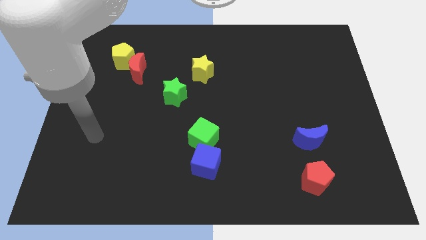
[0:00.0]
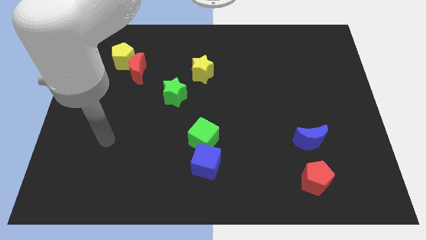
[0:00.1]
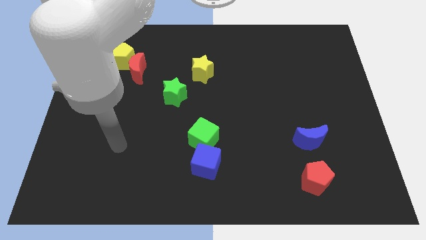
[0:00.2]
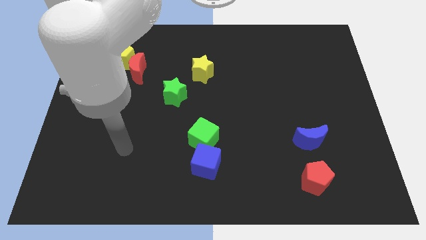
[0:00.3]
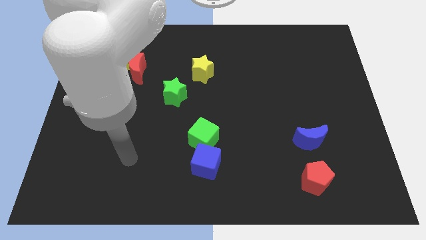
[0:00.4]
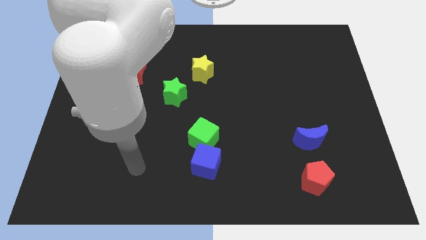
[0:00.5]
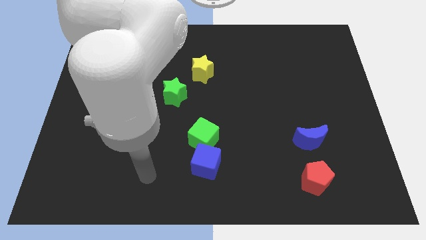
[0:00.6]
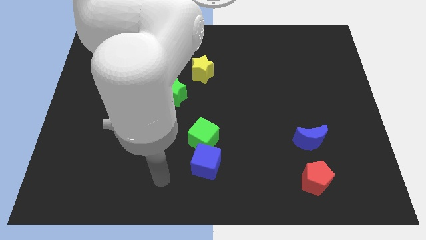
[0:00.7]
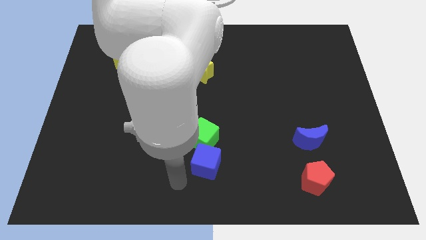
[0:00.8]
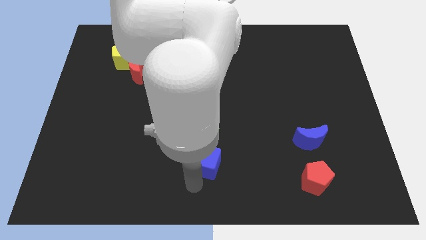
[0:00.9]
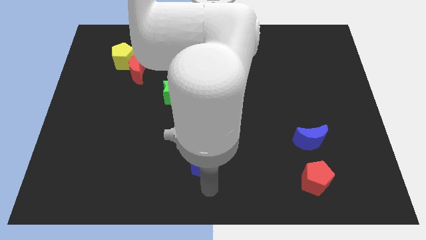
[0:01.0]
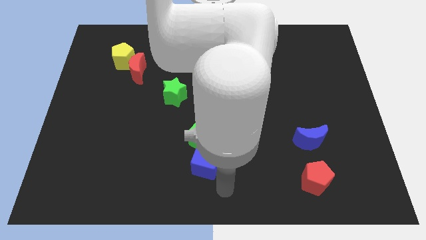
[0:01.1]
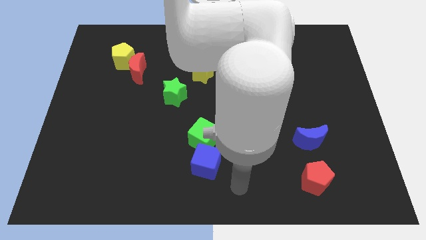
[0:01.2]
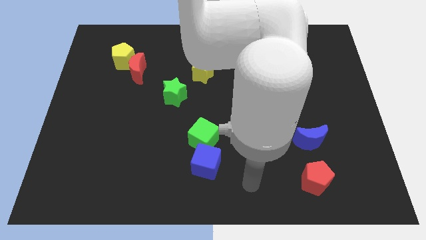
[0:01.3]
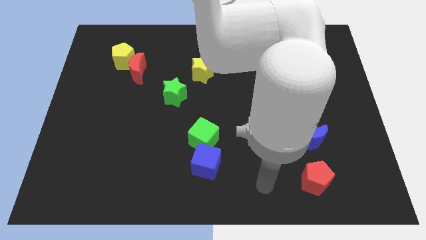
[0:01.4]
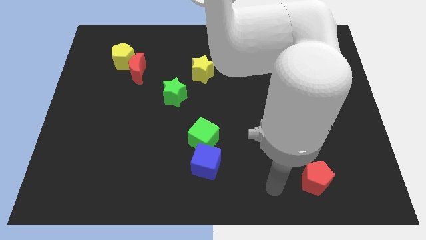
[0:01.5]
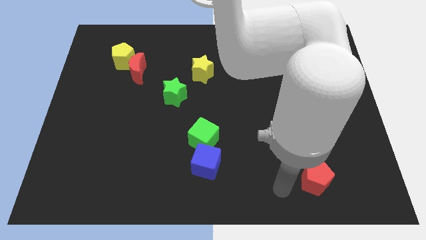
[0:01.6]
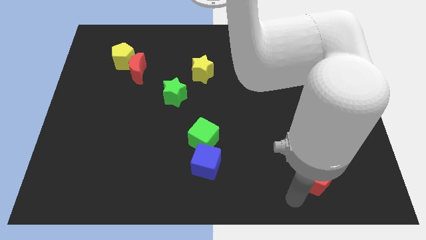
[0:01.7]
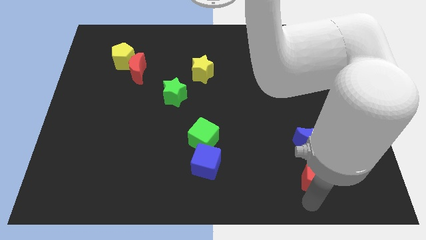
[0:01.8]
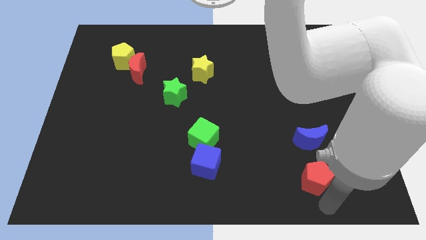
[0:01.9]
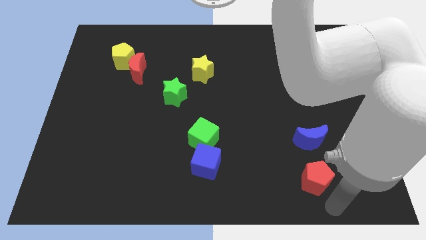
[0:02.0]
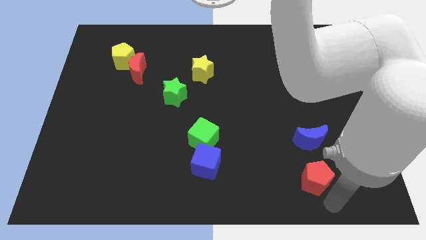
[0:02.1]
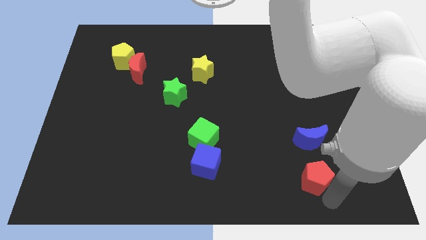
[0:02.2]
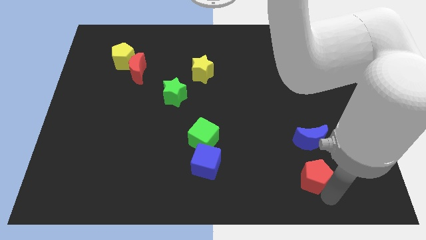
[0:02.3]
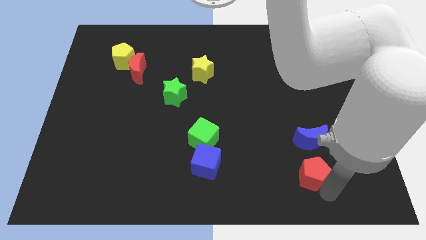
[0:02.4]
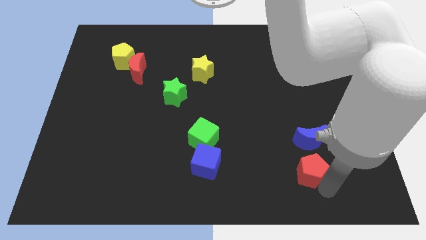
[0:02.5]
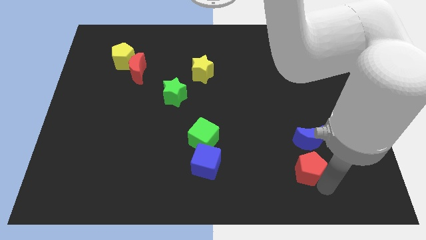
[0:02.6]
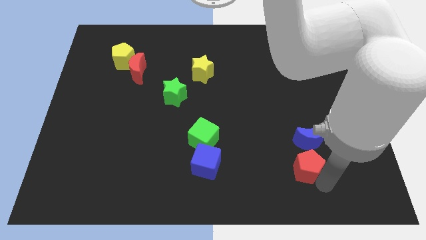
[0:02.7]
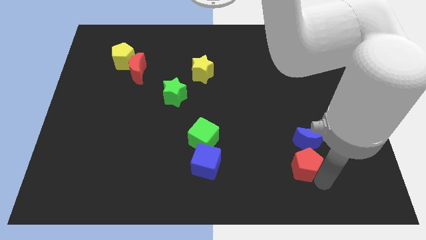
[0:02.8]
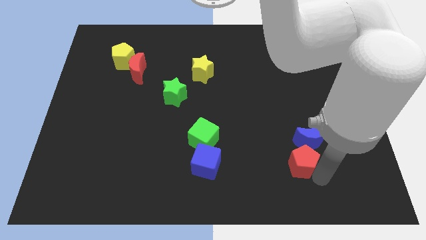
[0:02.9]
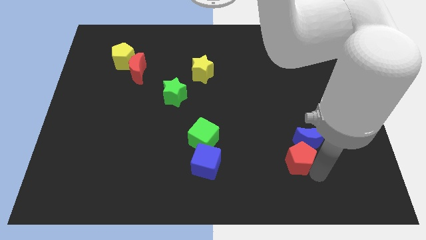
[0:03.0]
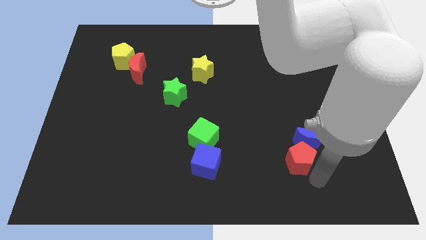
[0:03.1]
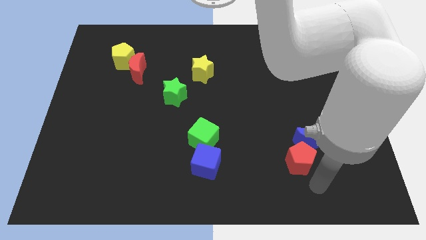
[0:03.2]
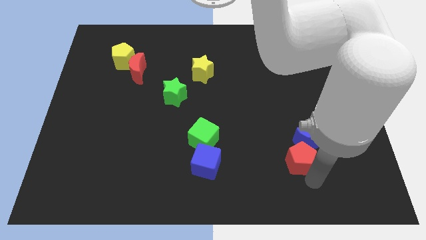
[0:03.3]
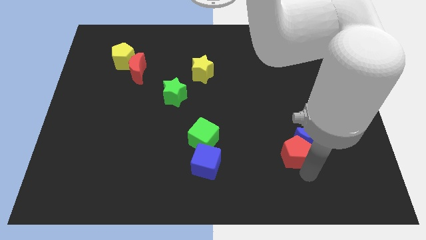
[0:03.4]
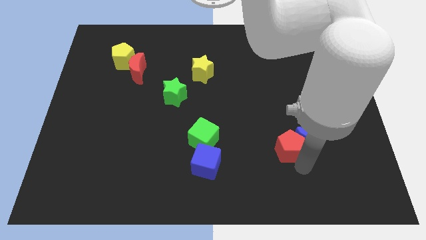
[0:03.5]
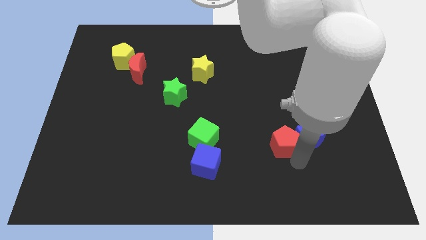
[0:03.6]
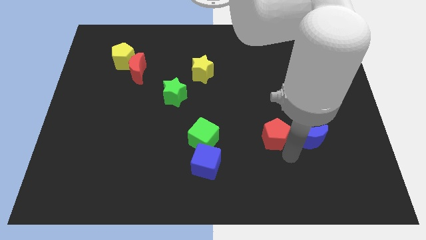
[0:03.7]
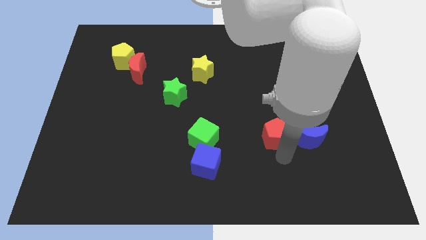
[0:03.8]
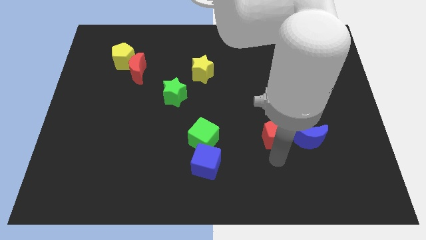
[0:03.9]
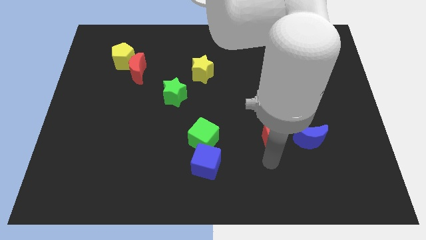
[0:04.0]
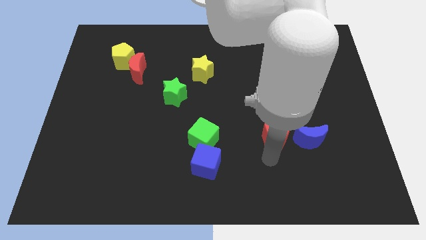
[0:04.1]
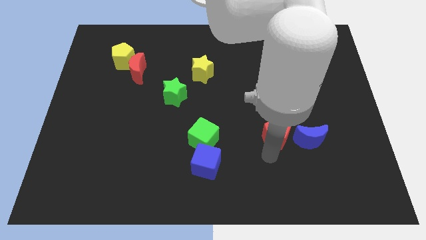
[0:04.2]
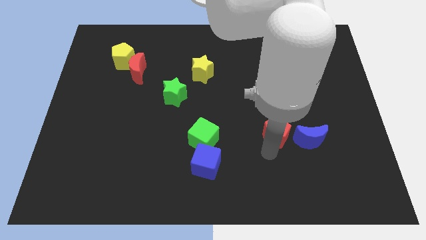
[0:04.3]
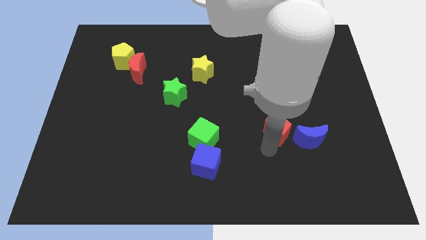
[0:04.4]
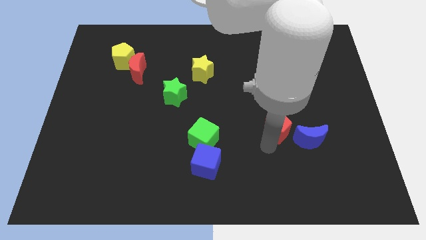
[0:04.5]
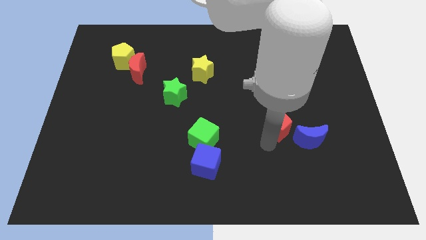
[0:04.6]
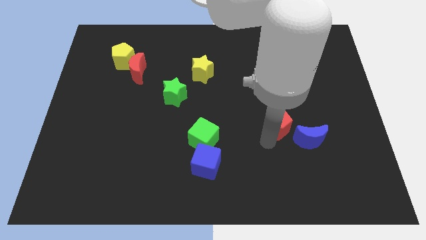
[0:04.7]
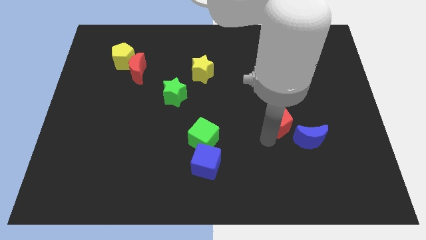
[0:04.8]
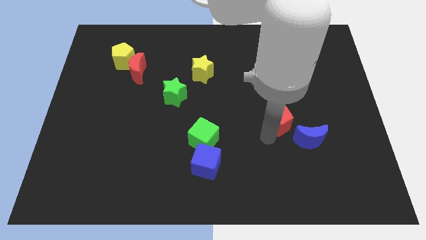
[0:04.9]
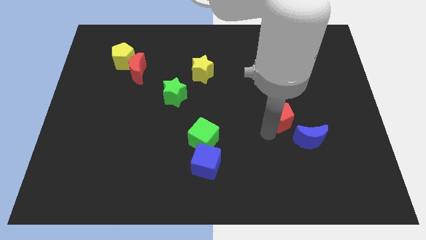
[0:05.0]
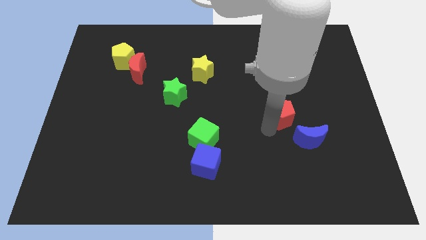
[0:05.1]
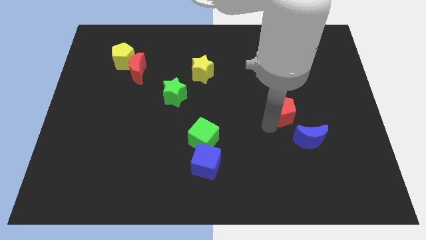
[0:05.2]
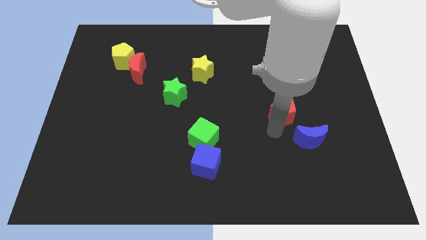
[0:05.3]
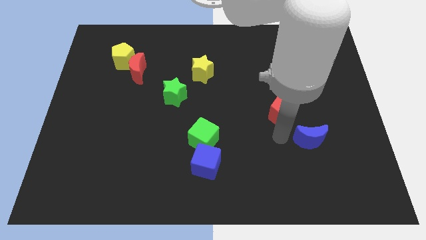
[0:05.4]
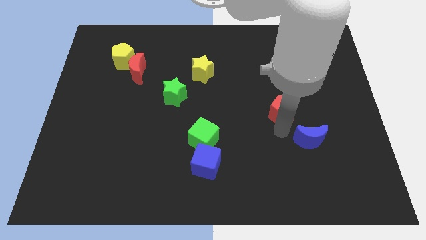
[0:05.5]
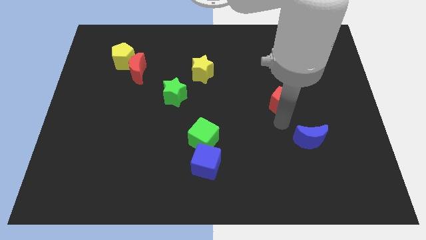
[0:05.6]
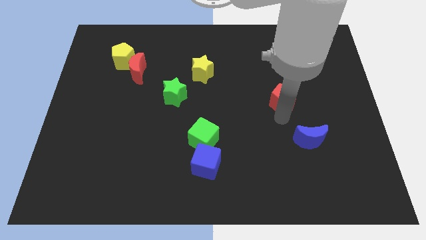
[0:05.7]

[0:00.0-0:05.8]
slide the red pentagon up

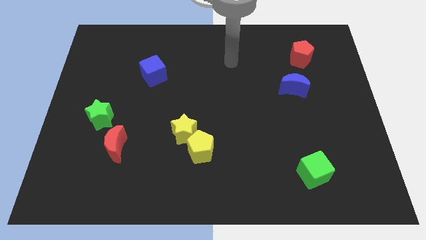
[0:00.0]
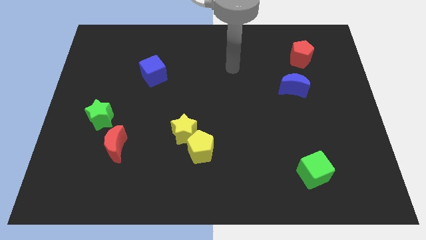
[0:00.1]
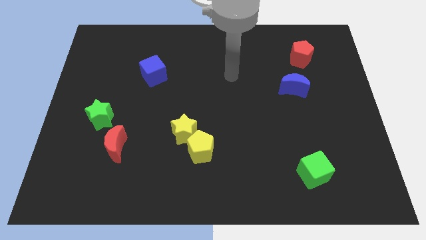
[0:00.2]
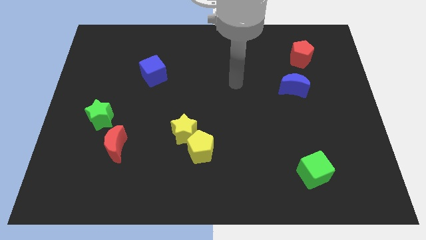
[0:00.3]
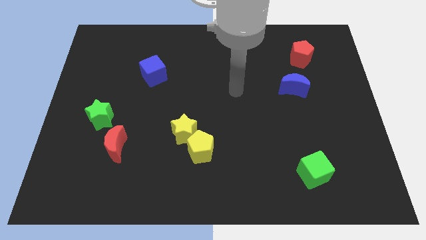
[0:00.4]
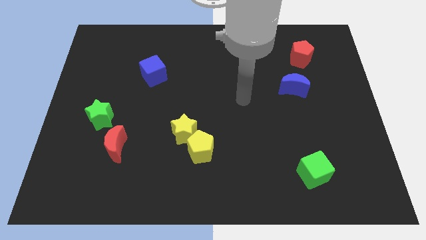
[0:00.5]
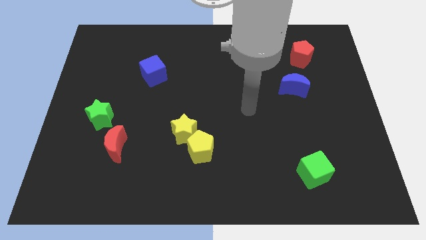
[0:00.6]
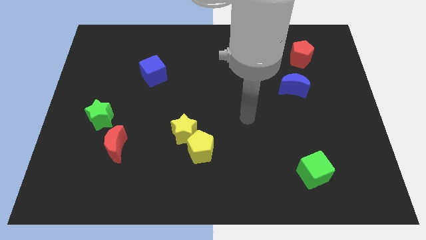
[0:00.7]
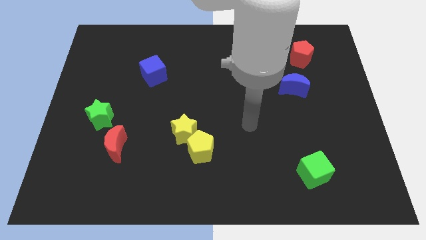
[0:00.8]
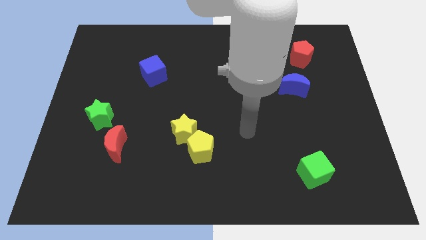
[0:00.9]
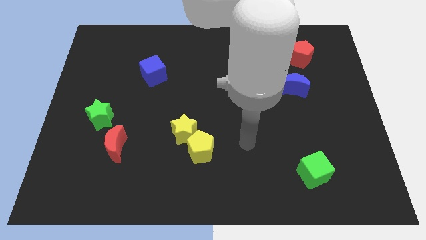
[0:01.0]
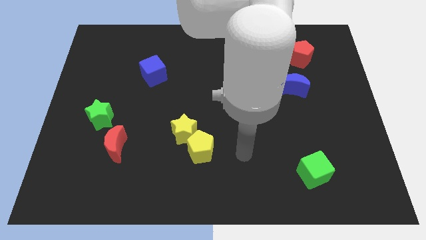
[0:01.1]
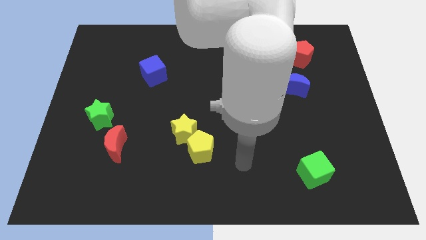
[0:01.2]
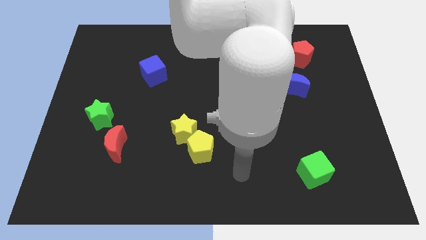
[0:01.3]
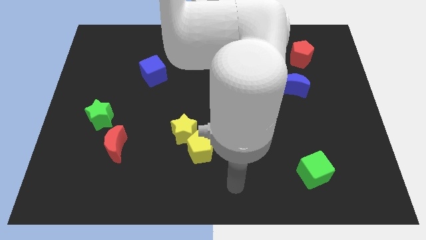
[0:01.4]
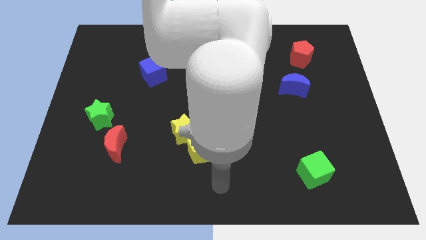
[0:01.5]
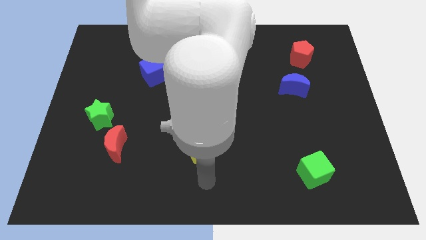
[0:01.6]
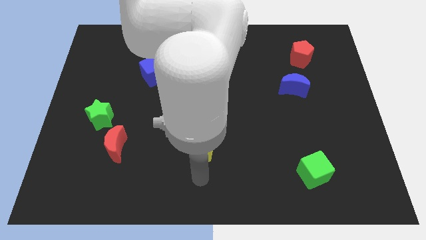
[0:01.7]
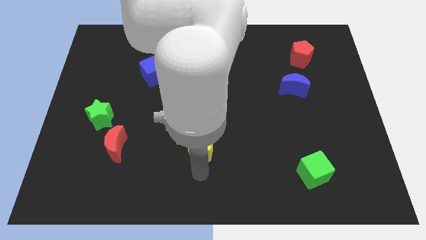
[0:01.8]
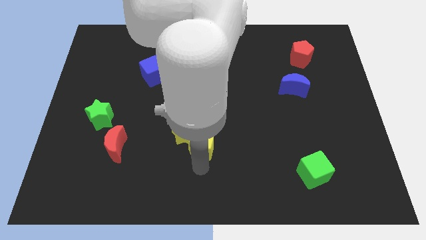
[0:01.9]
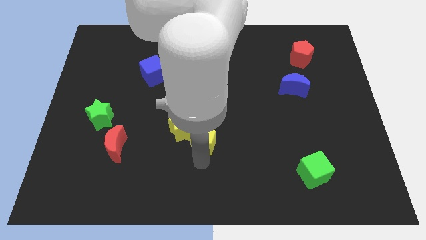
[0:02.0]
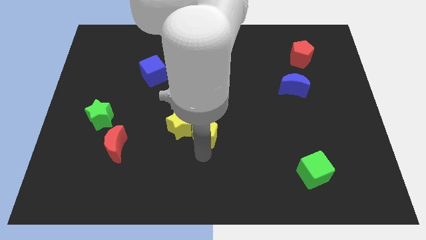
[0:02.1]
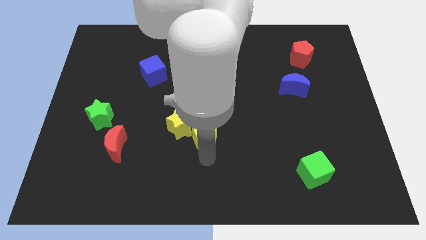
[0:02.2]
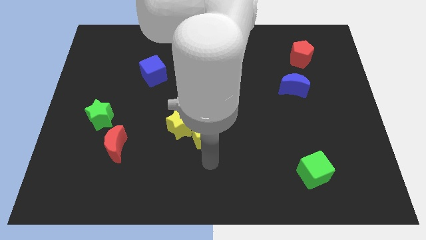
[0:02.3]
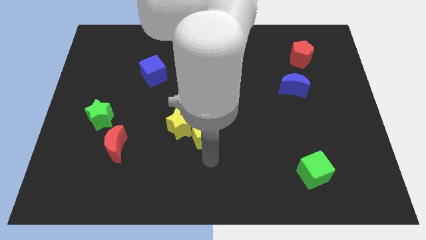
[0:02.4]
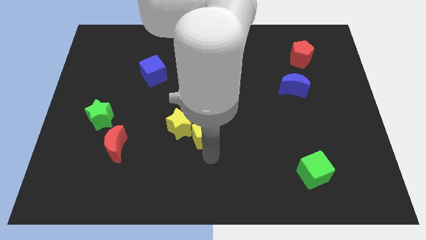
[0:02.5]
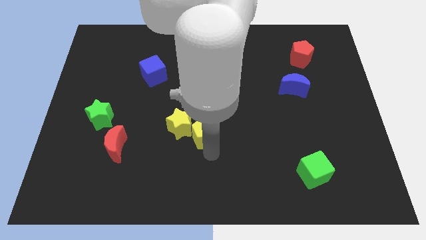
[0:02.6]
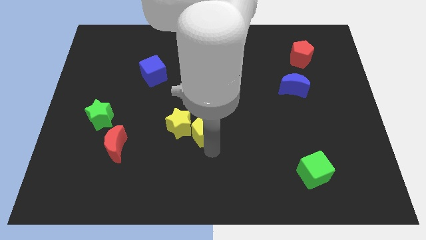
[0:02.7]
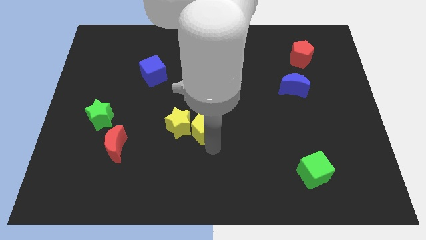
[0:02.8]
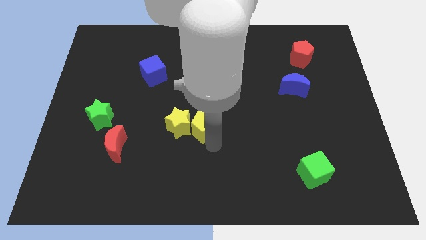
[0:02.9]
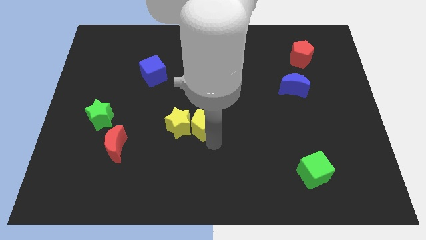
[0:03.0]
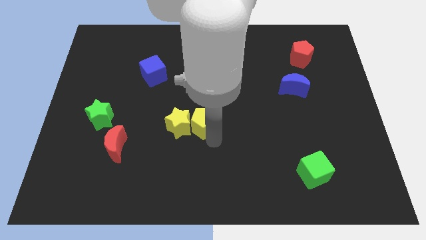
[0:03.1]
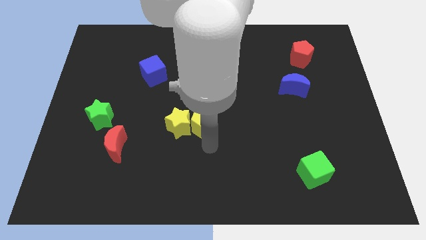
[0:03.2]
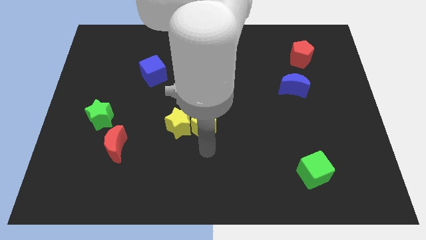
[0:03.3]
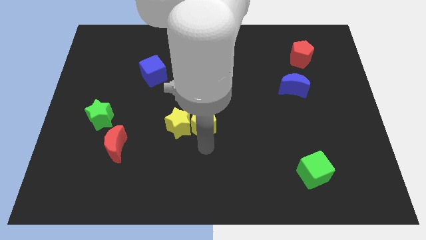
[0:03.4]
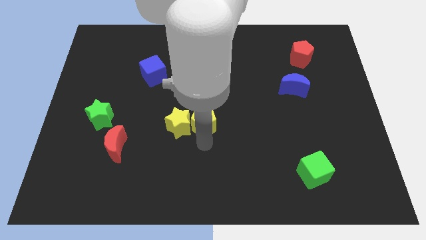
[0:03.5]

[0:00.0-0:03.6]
slightly push the yellow pentagon up
